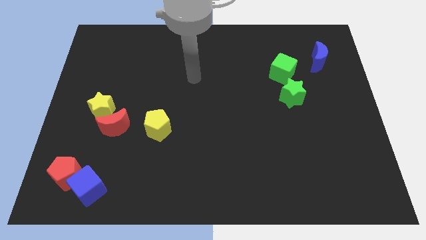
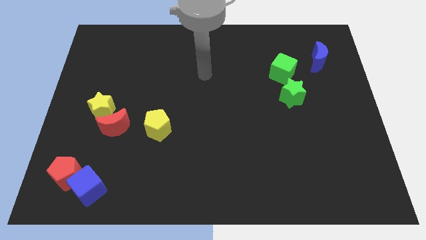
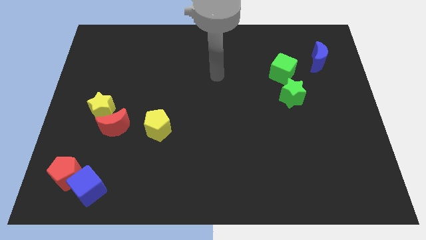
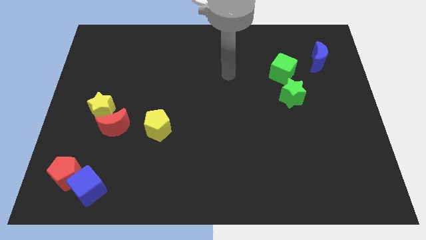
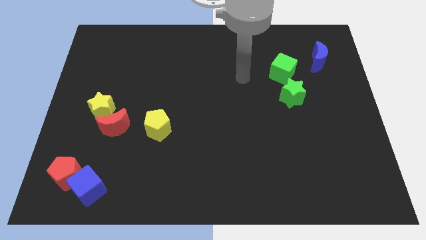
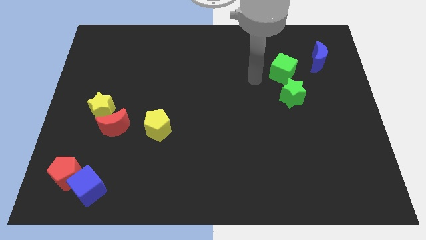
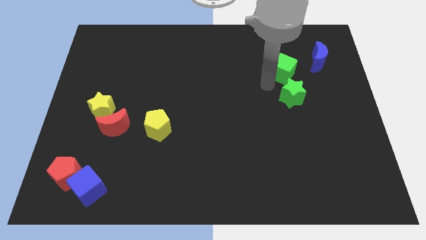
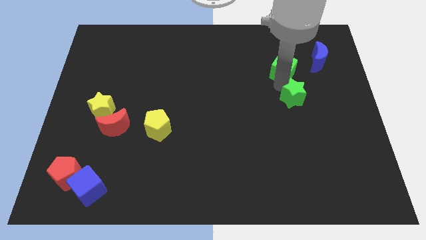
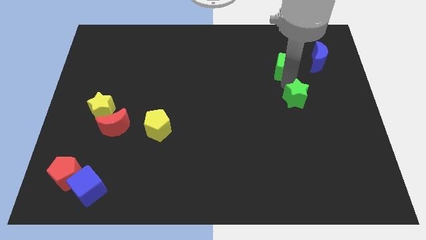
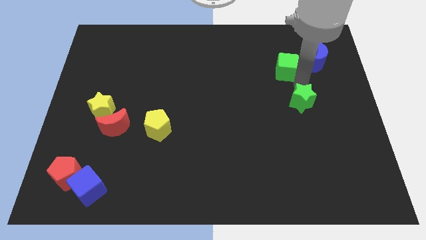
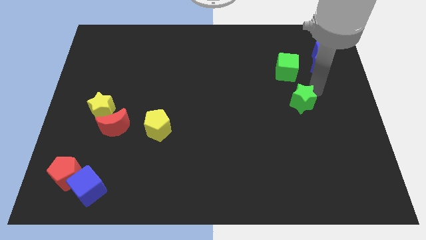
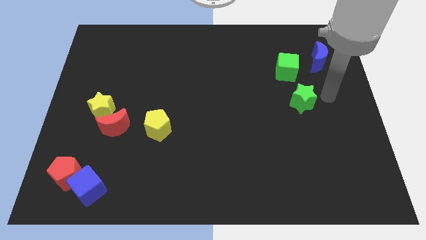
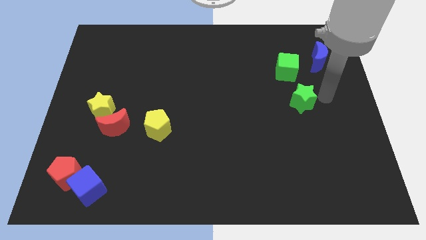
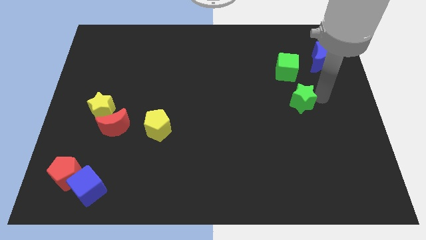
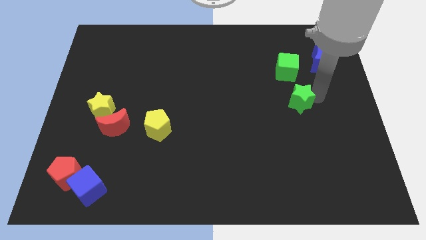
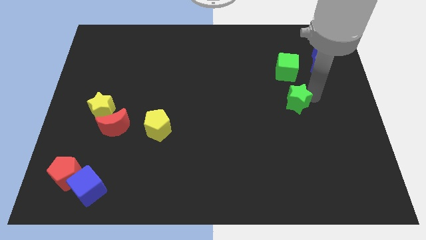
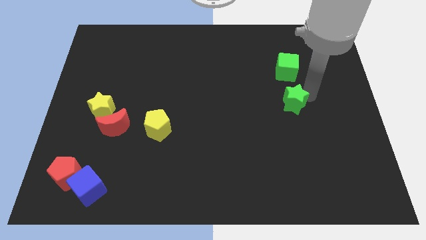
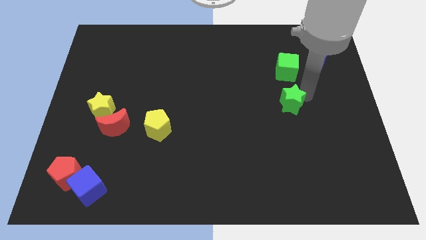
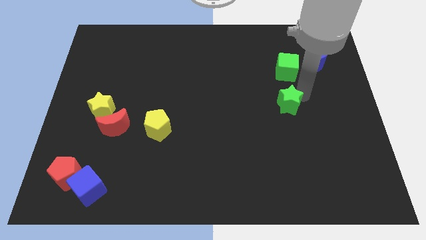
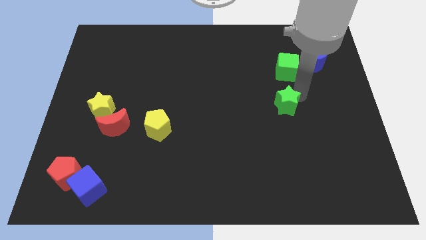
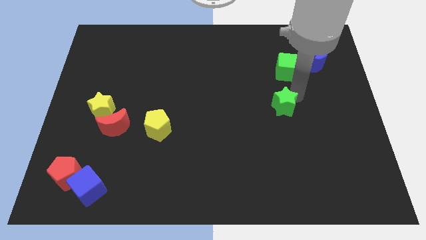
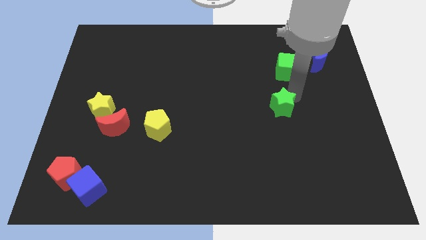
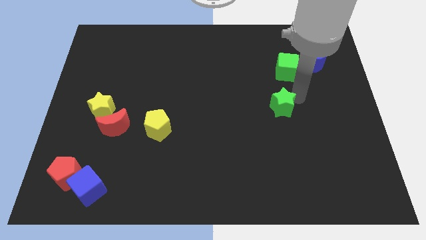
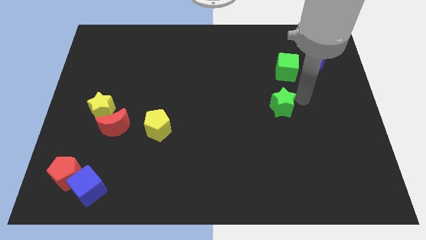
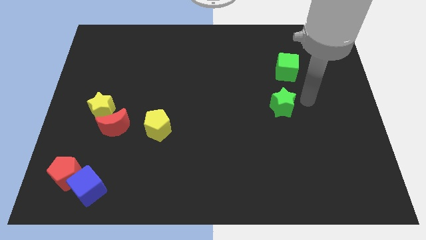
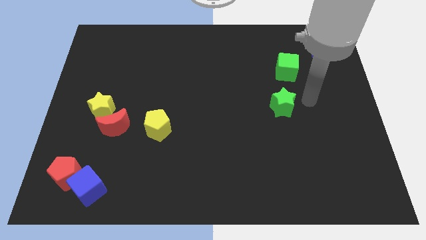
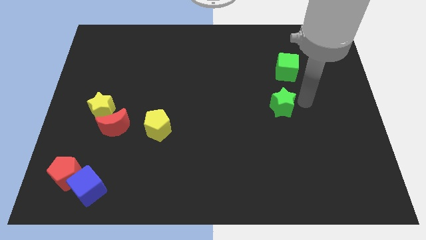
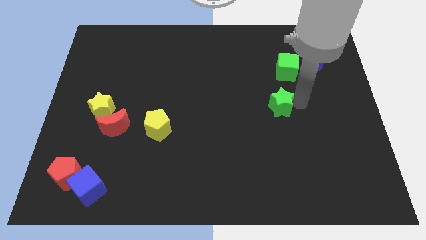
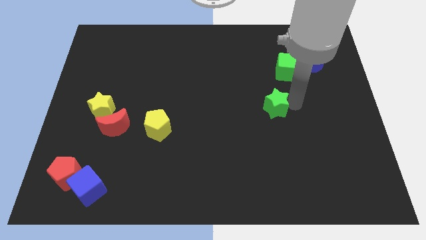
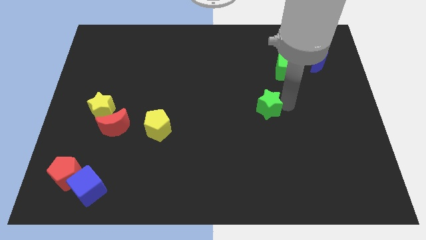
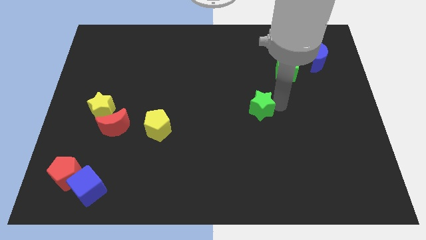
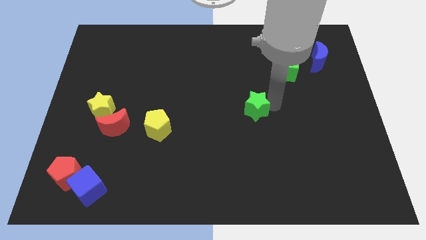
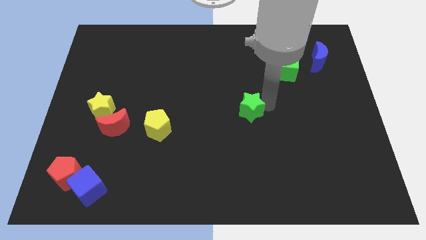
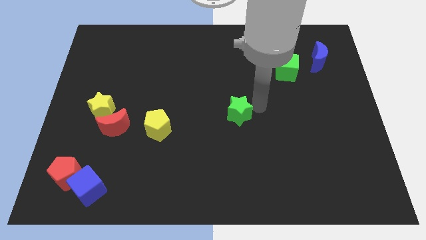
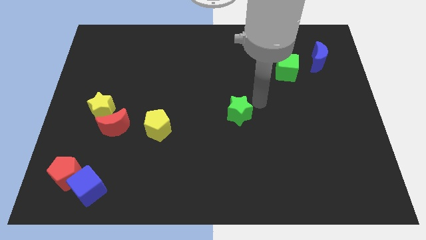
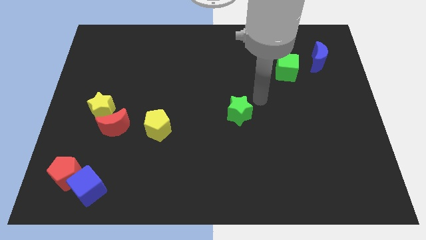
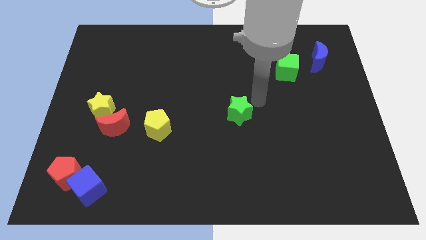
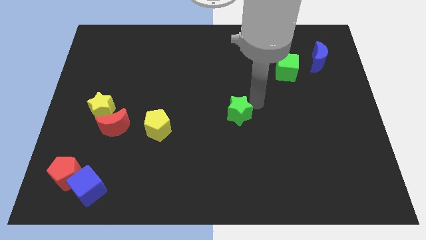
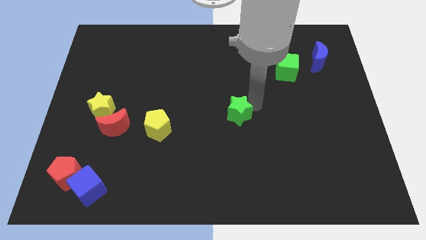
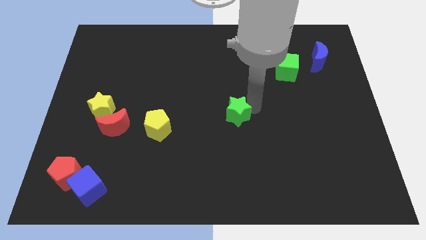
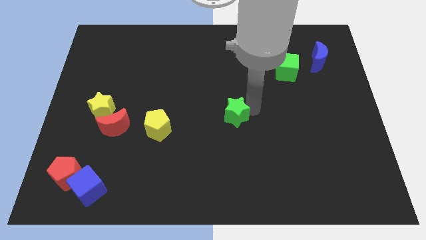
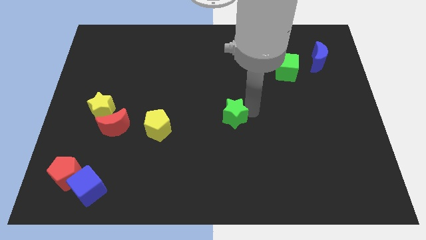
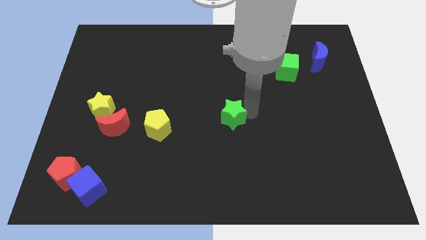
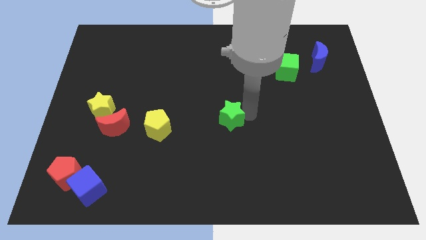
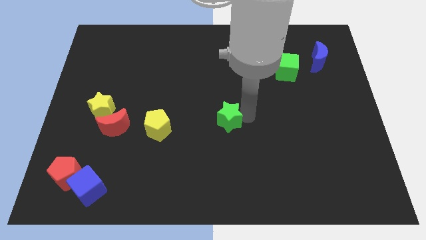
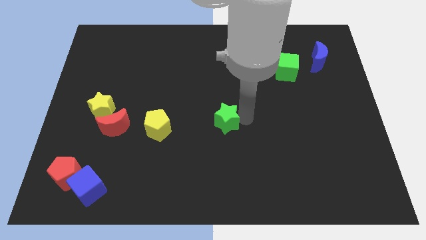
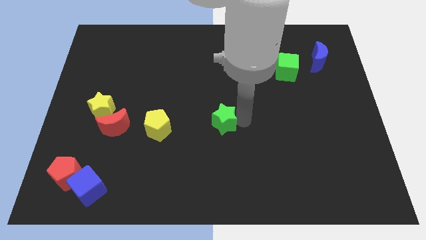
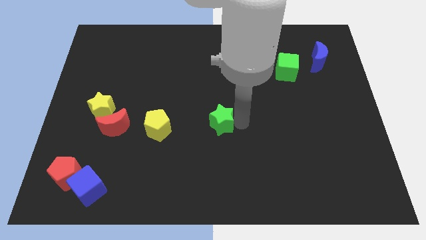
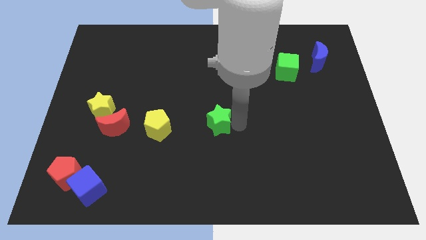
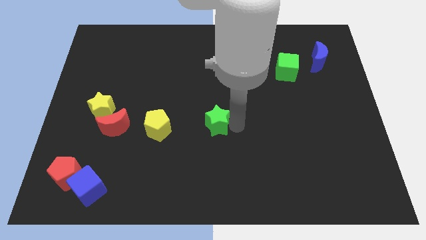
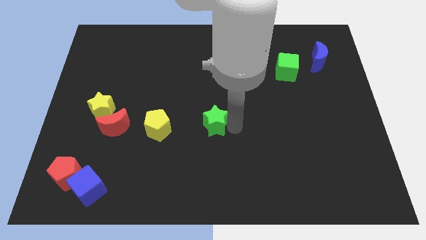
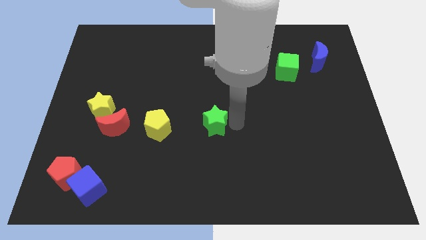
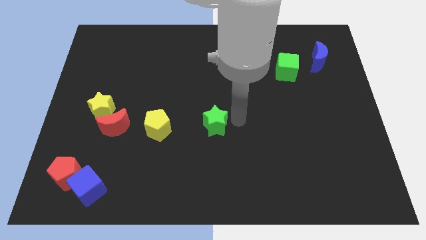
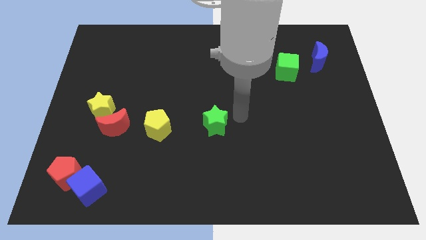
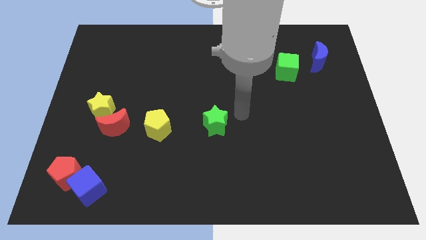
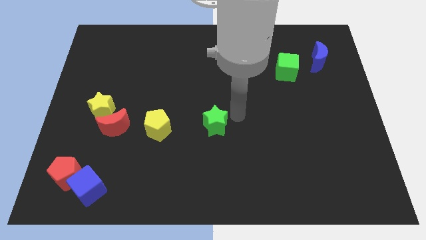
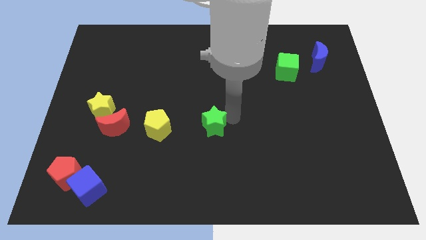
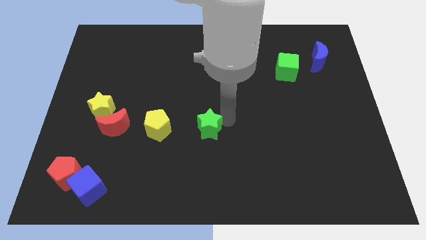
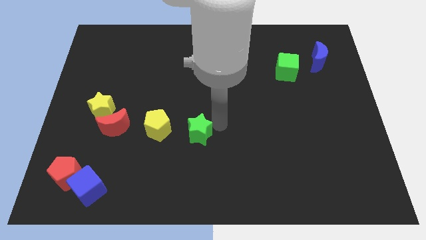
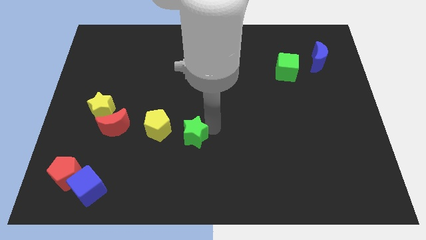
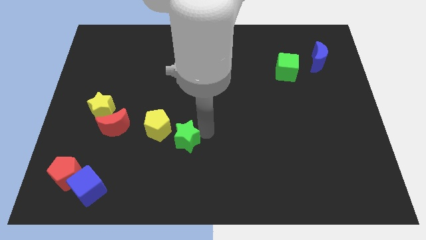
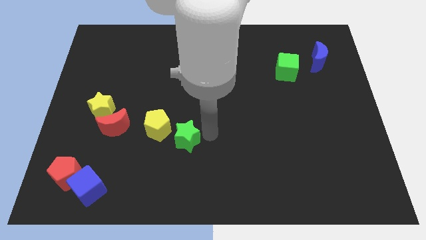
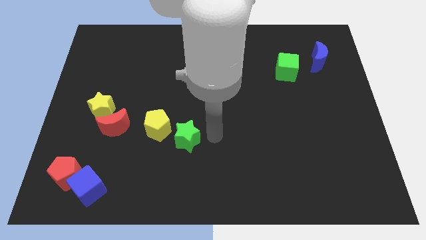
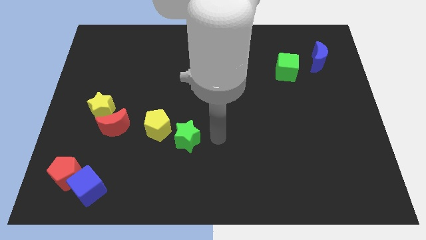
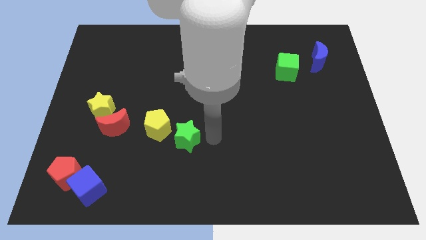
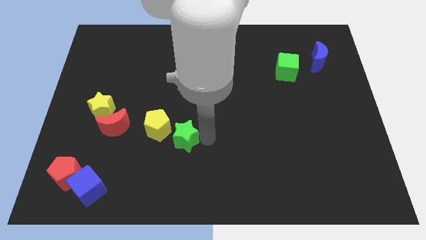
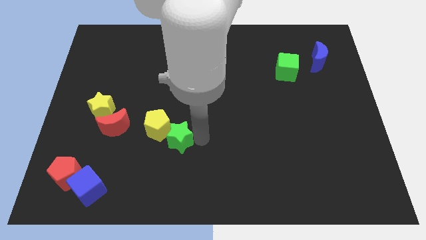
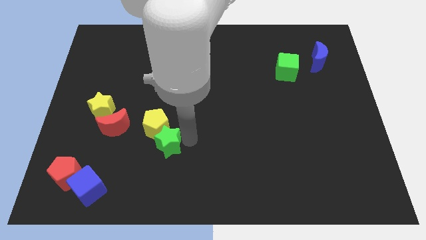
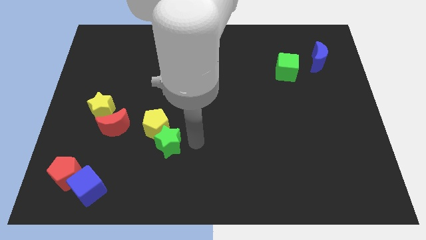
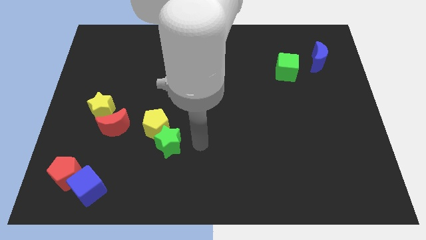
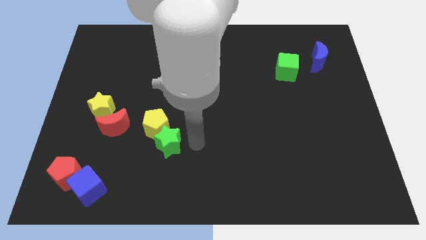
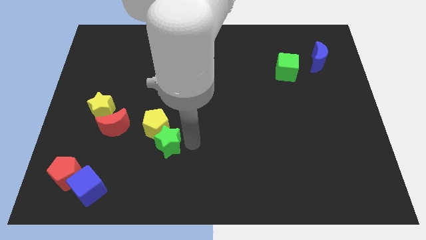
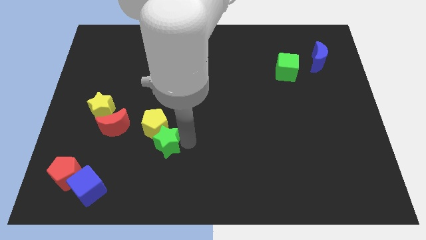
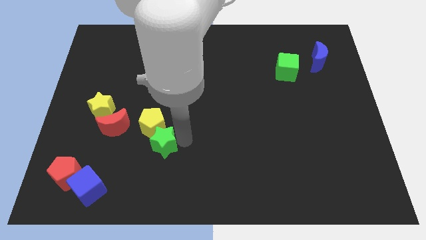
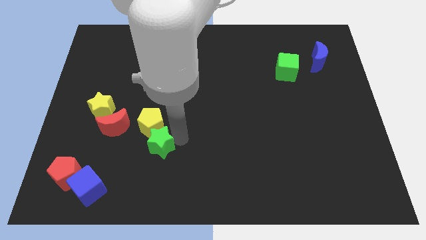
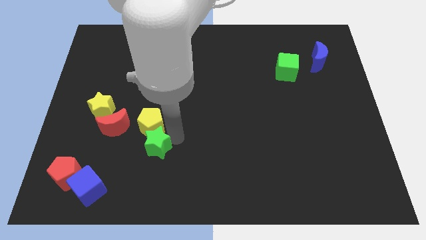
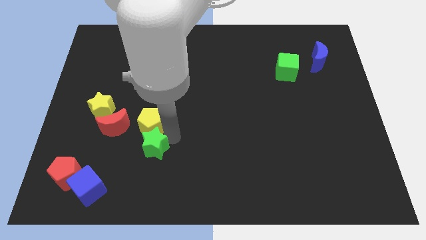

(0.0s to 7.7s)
put the green star to the bottom left of the yellow pentagon
